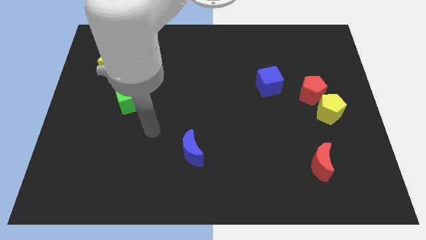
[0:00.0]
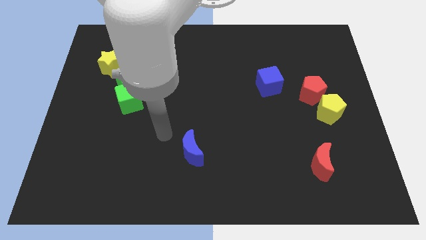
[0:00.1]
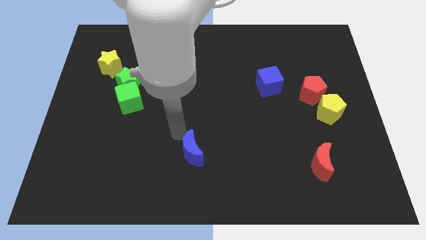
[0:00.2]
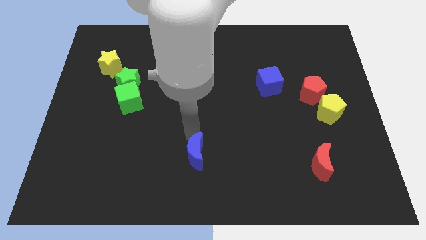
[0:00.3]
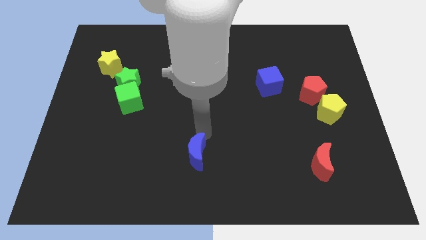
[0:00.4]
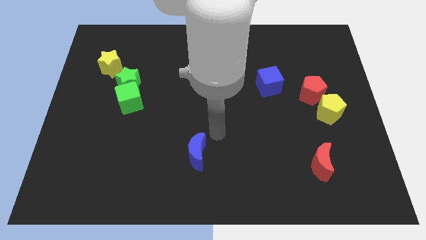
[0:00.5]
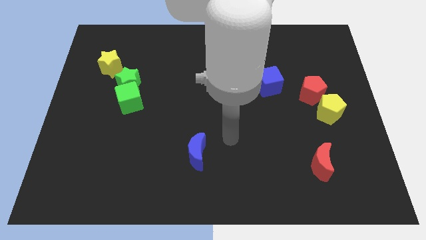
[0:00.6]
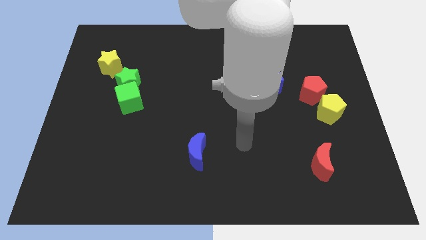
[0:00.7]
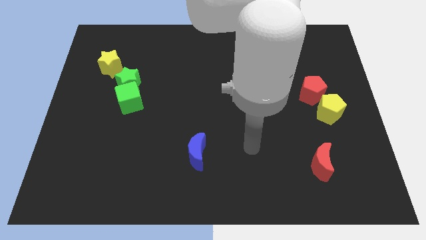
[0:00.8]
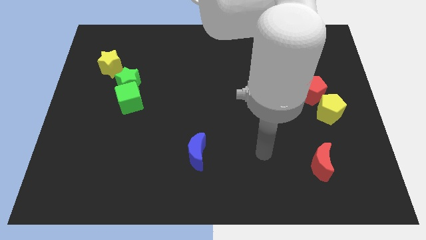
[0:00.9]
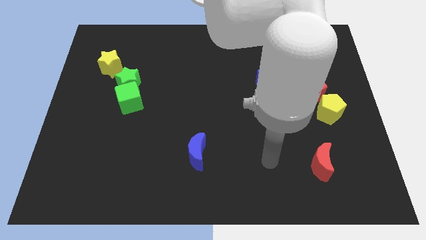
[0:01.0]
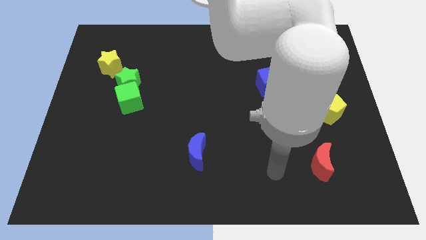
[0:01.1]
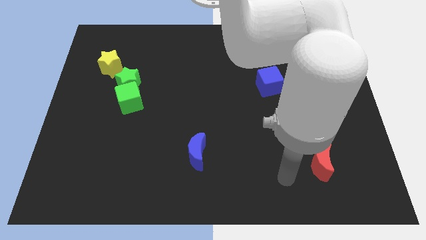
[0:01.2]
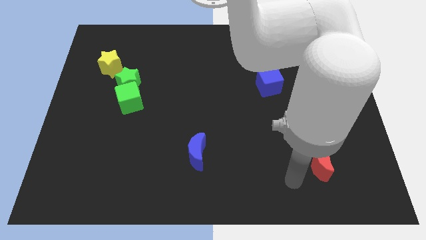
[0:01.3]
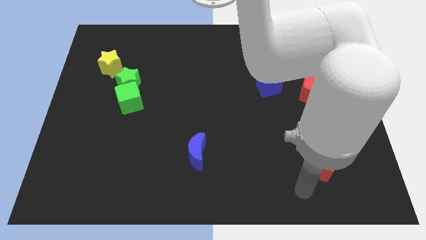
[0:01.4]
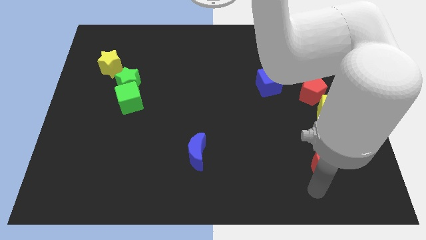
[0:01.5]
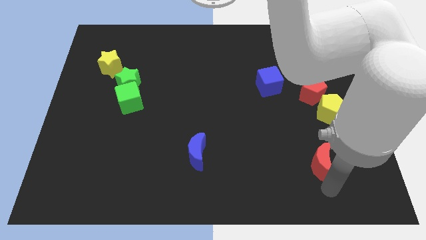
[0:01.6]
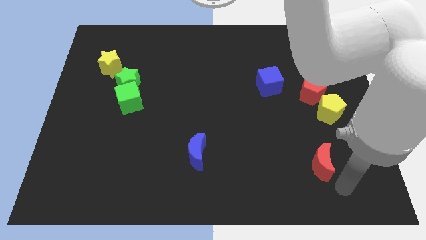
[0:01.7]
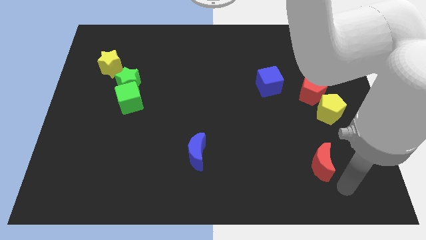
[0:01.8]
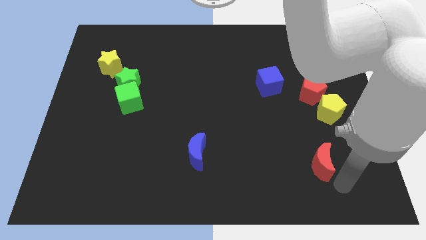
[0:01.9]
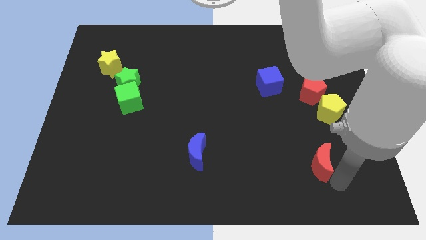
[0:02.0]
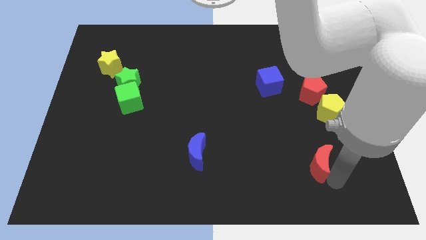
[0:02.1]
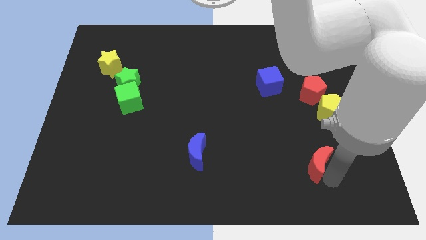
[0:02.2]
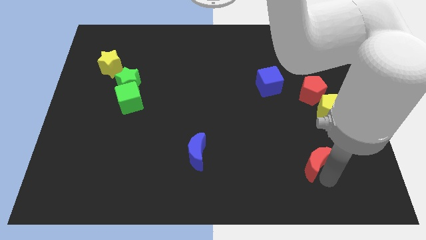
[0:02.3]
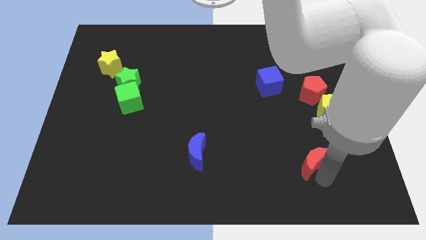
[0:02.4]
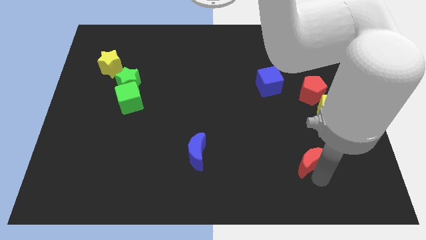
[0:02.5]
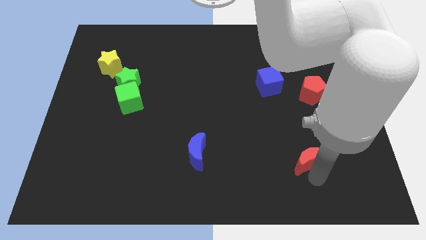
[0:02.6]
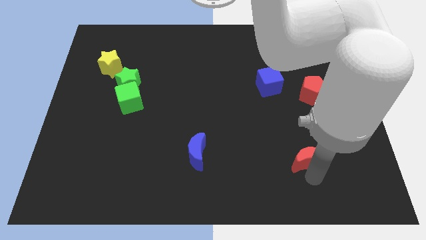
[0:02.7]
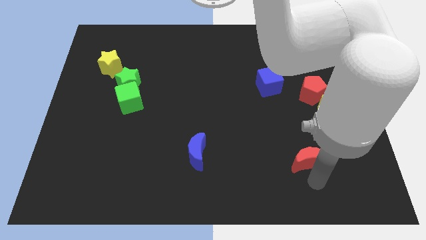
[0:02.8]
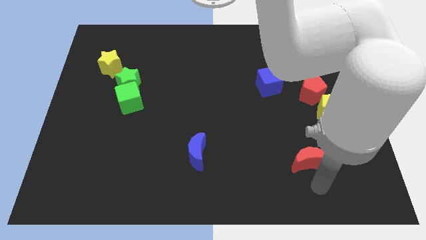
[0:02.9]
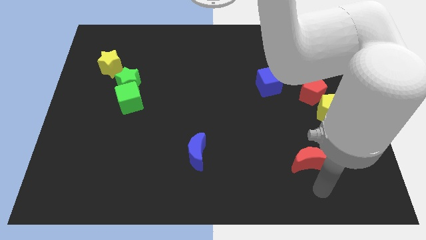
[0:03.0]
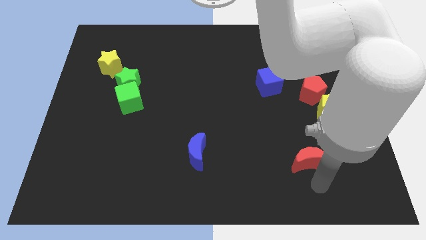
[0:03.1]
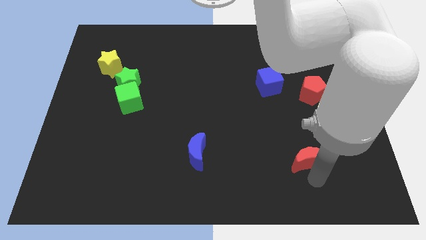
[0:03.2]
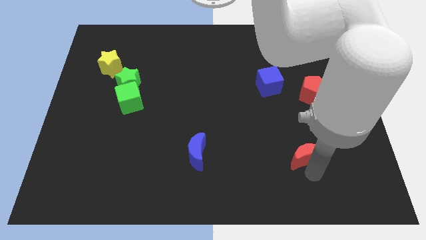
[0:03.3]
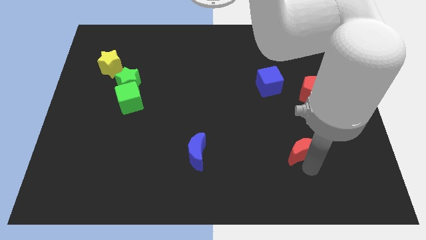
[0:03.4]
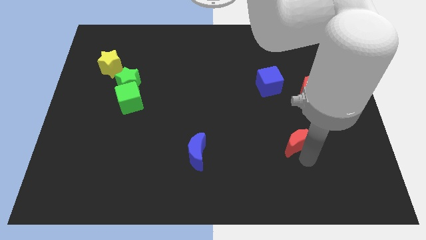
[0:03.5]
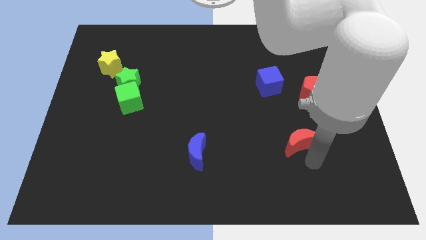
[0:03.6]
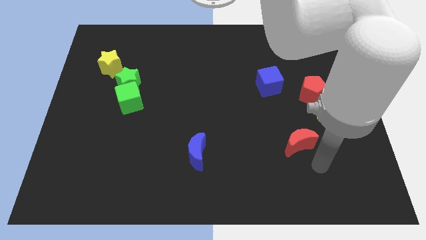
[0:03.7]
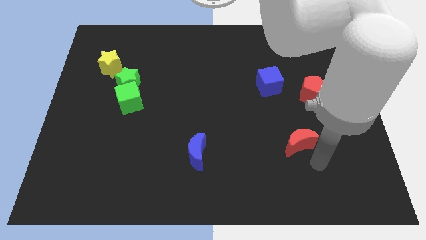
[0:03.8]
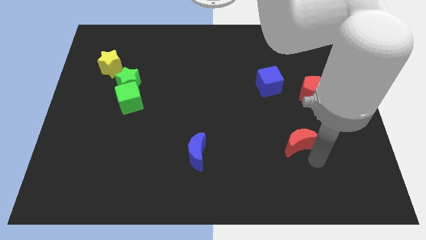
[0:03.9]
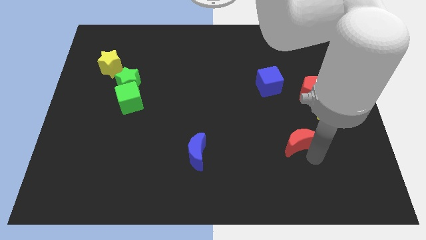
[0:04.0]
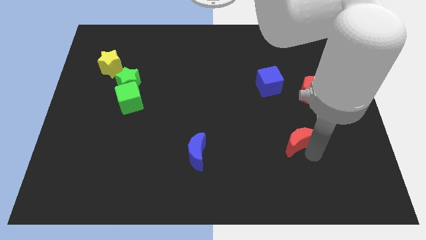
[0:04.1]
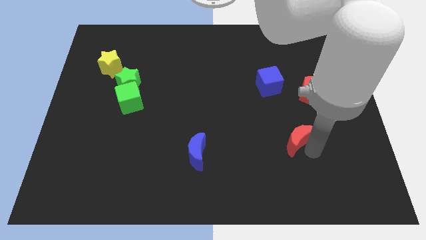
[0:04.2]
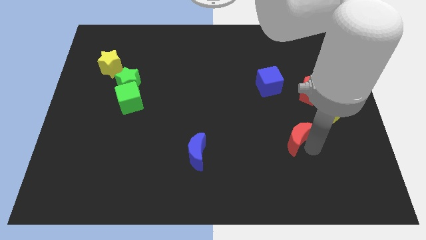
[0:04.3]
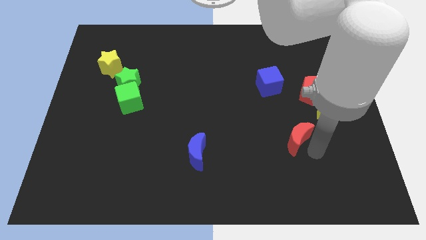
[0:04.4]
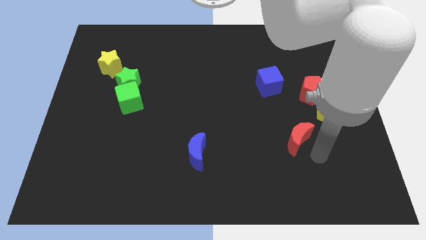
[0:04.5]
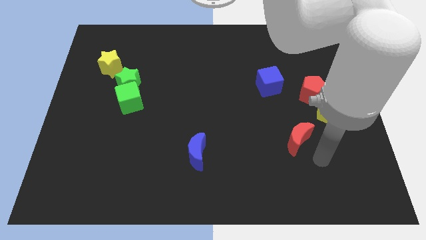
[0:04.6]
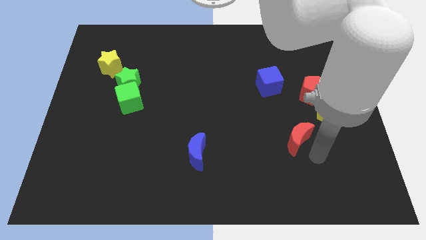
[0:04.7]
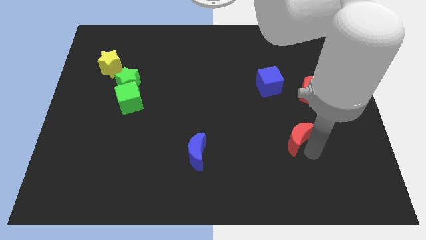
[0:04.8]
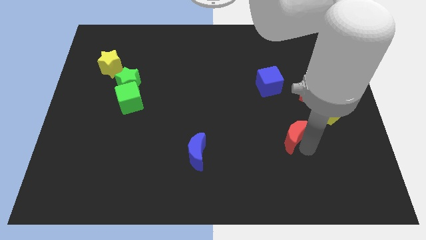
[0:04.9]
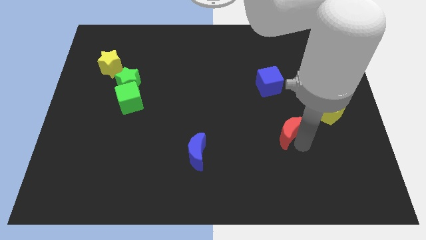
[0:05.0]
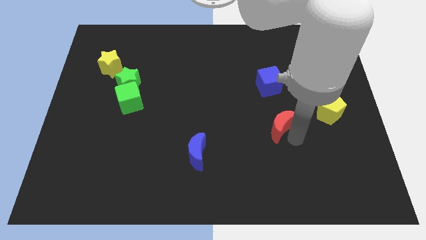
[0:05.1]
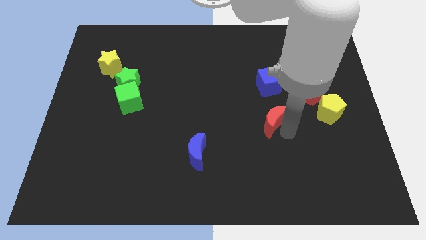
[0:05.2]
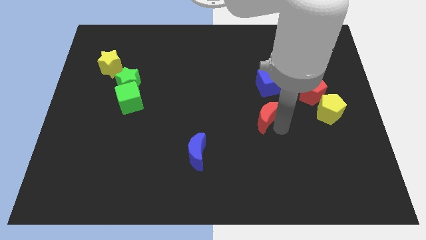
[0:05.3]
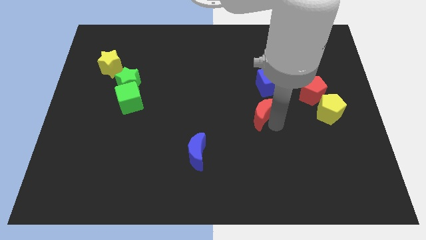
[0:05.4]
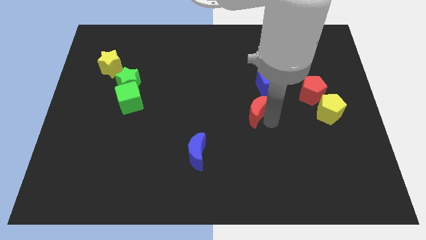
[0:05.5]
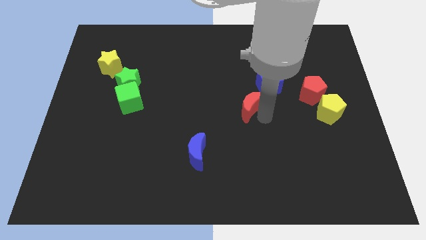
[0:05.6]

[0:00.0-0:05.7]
move the red moon upwards and left diagonally

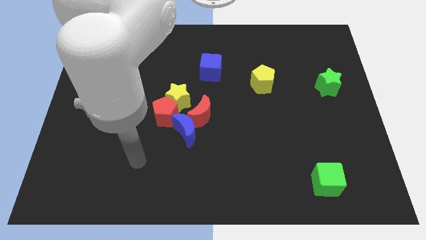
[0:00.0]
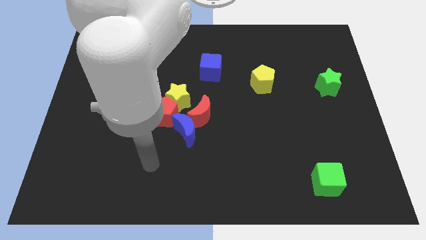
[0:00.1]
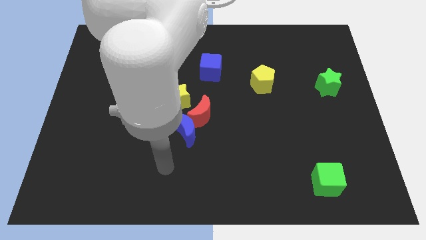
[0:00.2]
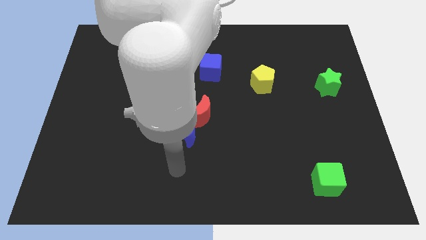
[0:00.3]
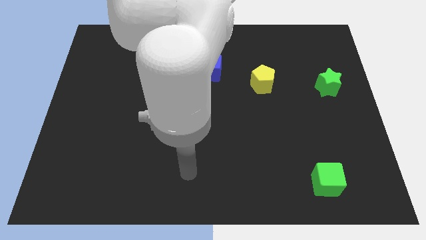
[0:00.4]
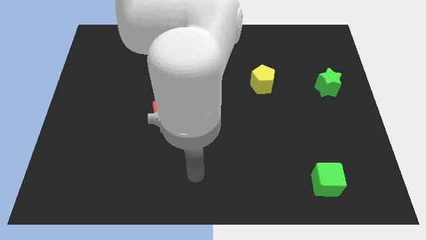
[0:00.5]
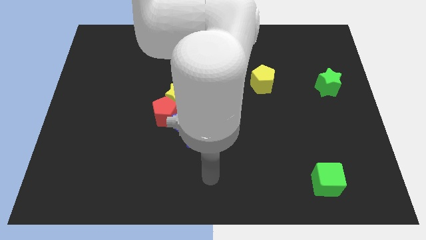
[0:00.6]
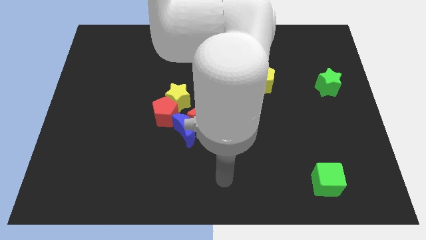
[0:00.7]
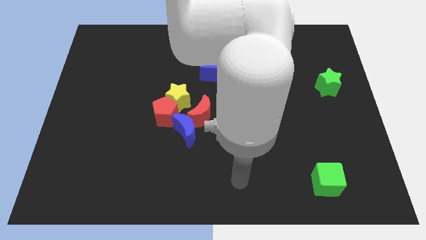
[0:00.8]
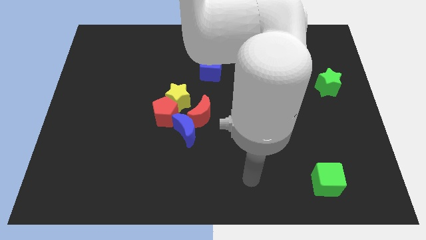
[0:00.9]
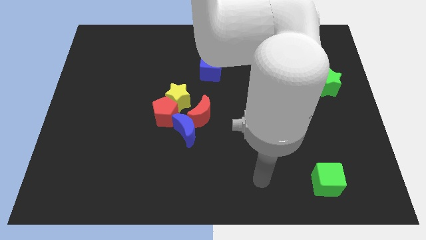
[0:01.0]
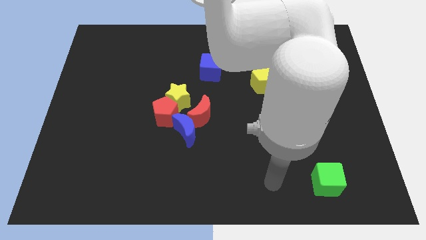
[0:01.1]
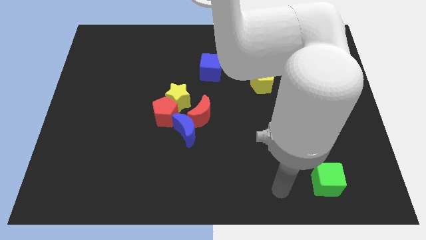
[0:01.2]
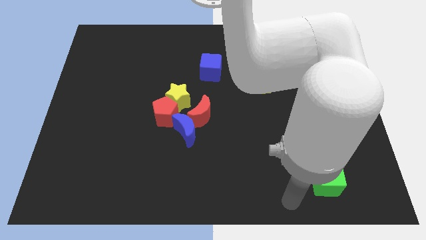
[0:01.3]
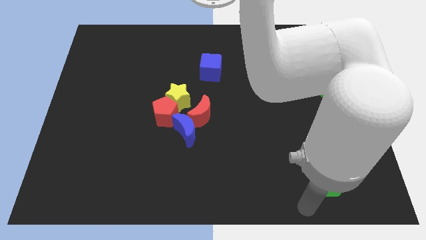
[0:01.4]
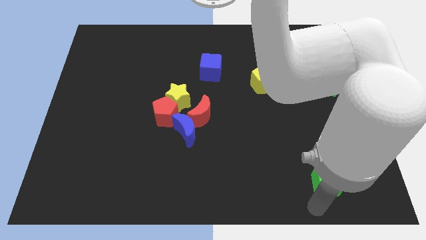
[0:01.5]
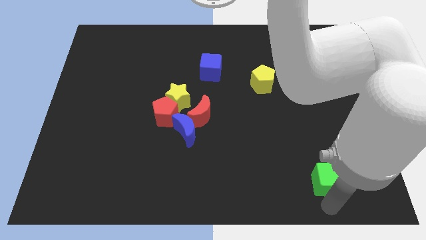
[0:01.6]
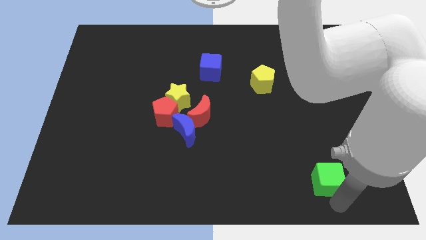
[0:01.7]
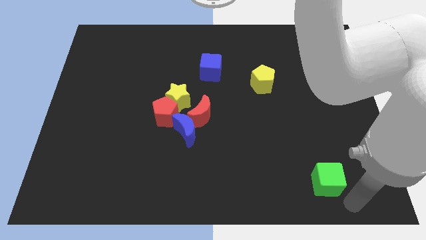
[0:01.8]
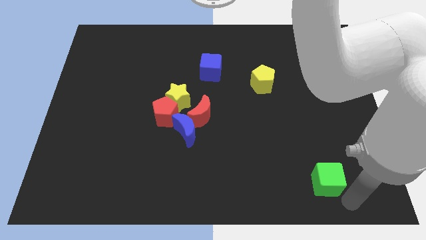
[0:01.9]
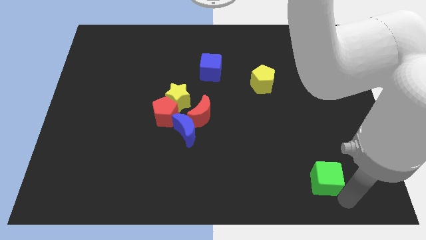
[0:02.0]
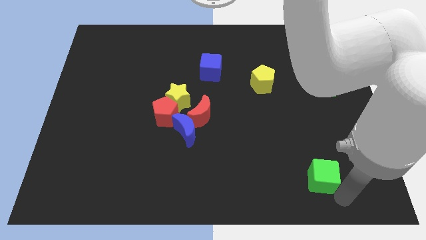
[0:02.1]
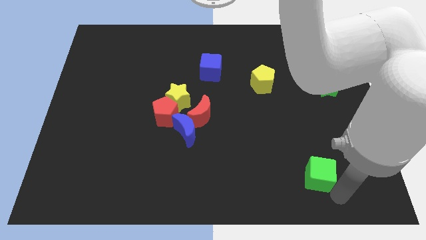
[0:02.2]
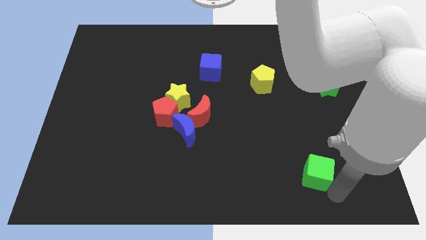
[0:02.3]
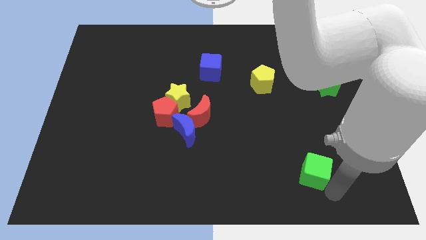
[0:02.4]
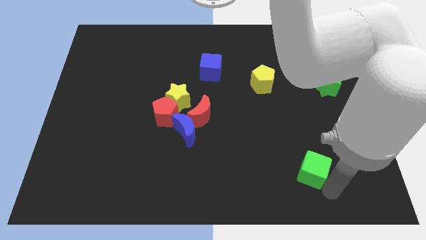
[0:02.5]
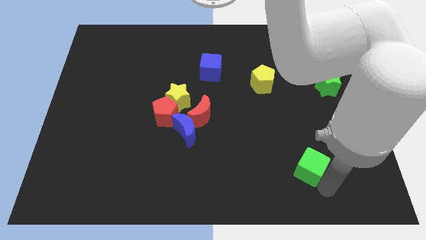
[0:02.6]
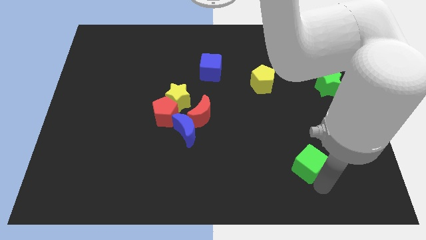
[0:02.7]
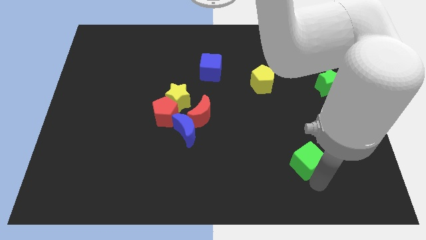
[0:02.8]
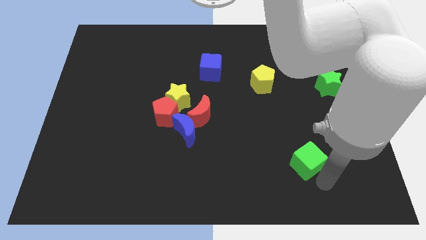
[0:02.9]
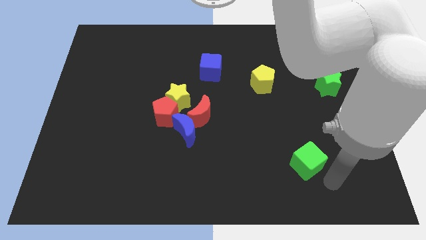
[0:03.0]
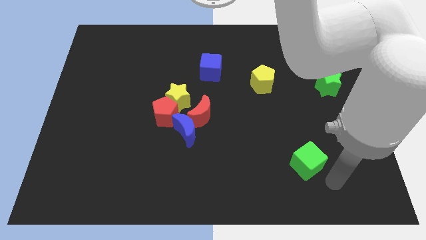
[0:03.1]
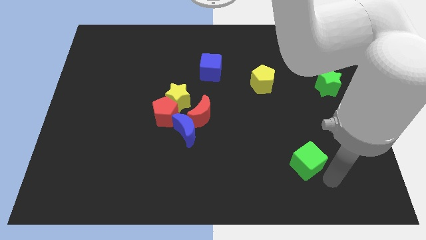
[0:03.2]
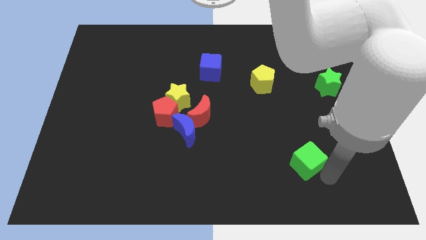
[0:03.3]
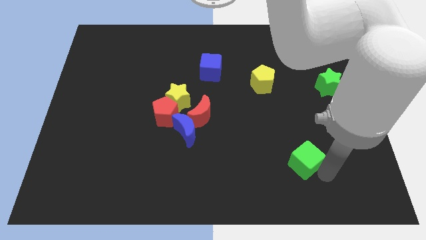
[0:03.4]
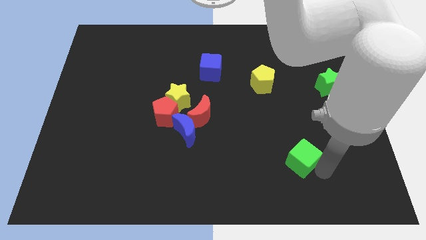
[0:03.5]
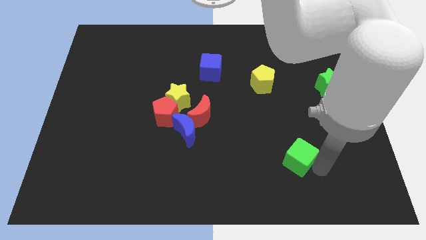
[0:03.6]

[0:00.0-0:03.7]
slightly move the green cube up and then to the left
